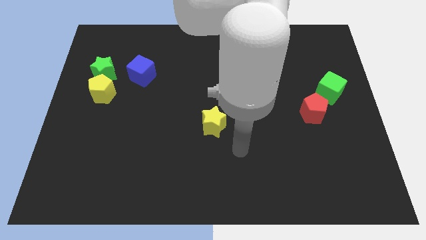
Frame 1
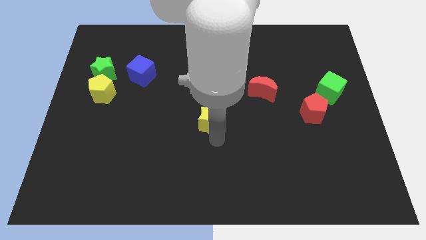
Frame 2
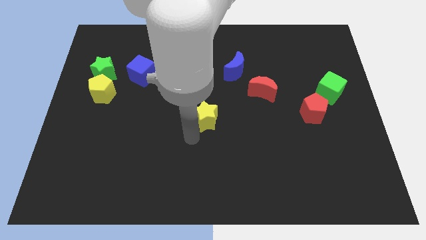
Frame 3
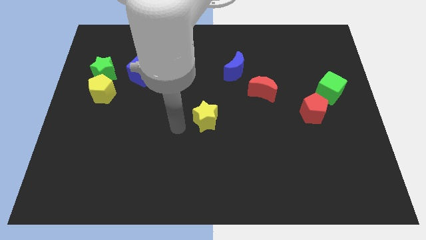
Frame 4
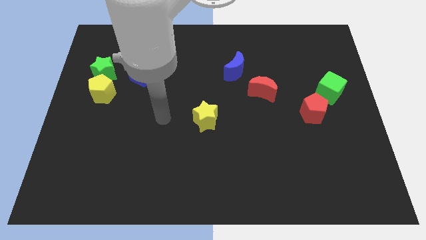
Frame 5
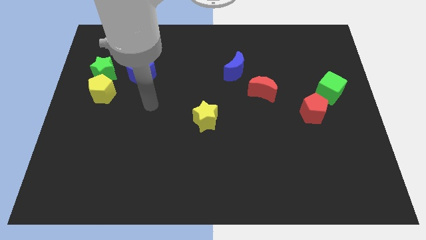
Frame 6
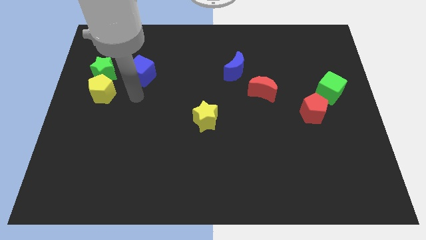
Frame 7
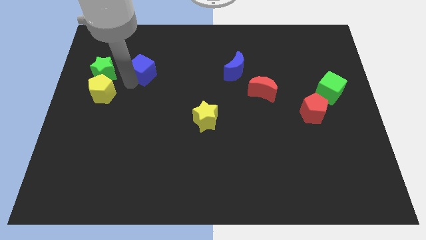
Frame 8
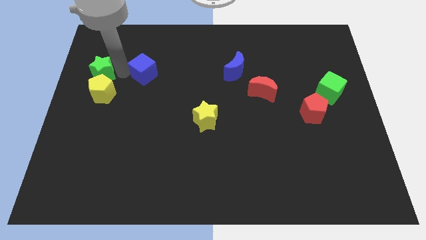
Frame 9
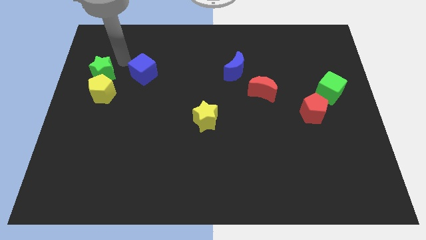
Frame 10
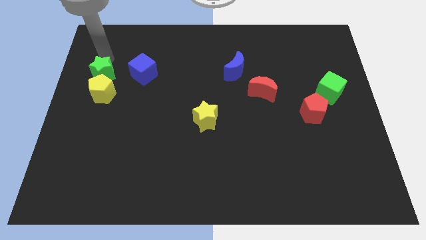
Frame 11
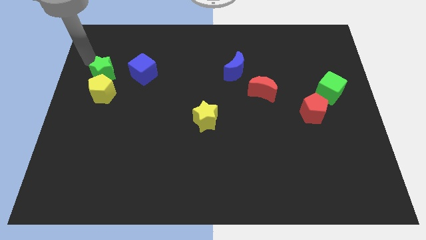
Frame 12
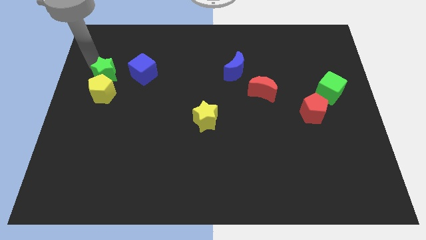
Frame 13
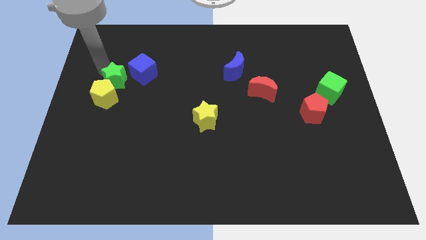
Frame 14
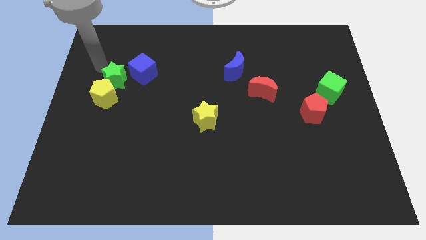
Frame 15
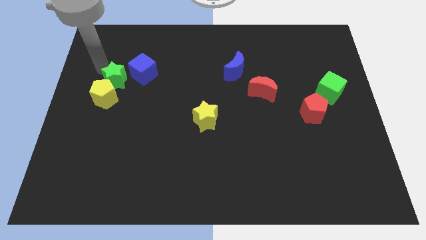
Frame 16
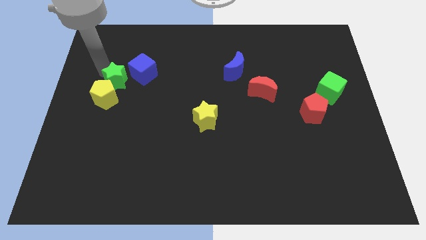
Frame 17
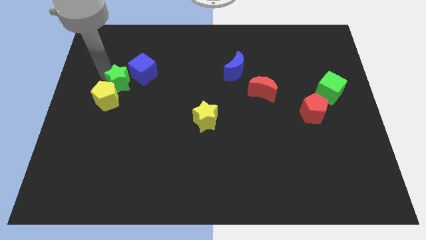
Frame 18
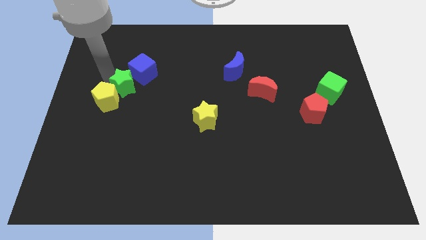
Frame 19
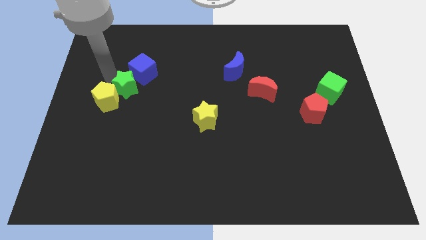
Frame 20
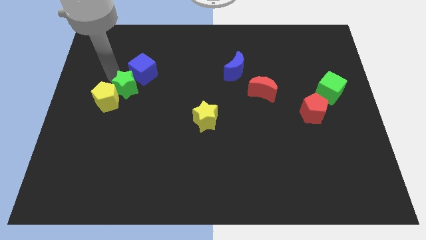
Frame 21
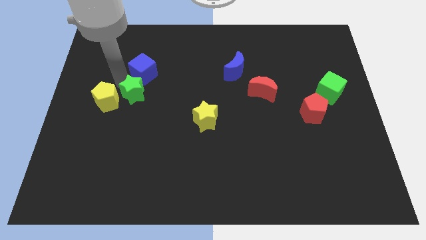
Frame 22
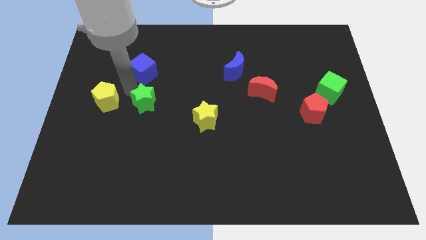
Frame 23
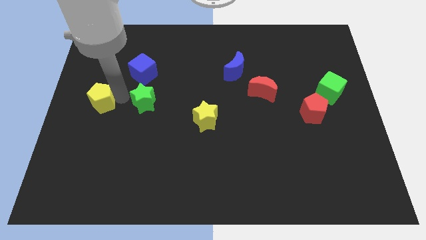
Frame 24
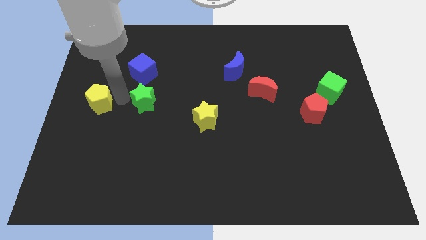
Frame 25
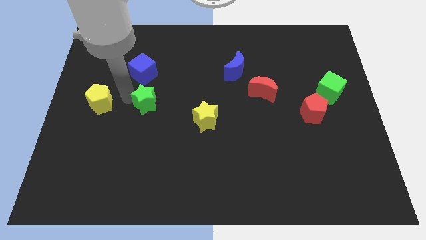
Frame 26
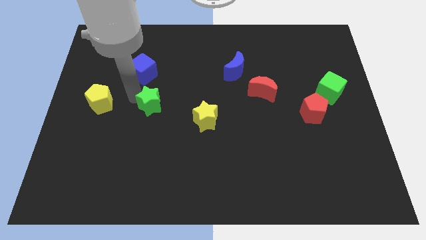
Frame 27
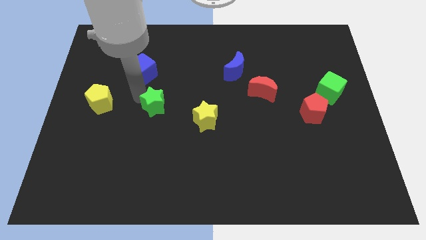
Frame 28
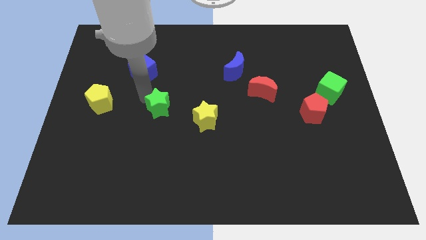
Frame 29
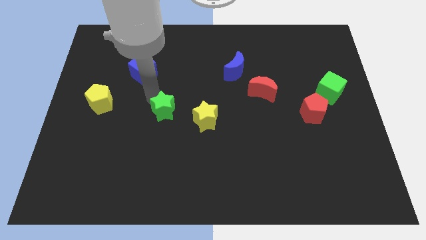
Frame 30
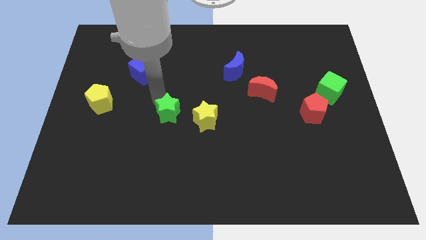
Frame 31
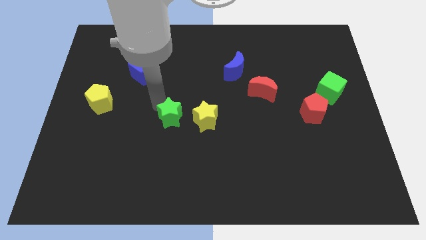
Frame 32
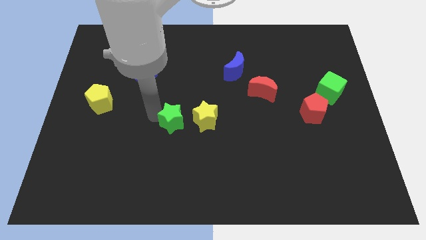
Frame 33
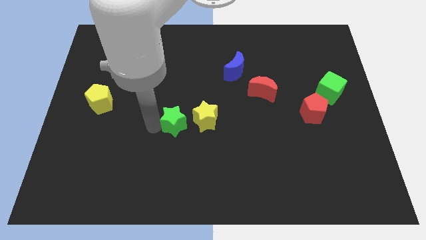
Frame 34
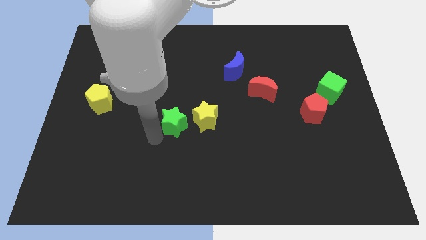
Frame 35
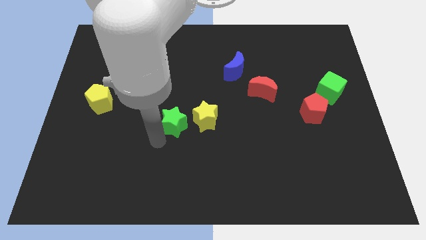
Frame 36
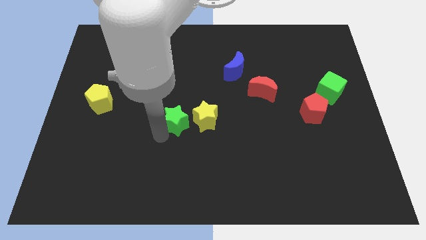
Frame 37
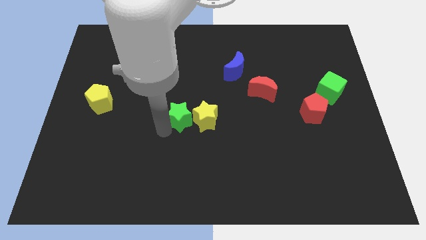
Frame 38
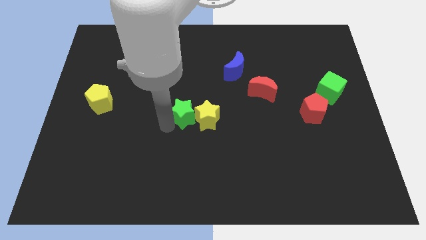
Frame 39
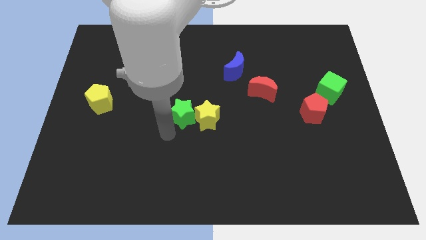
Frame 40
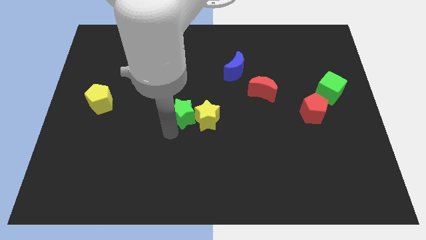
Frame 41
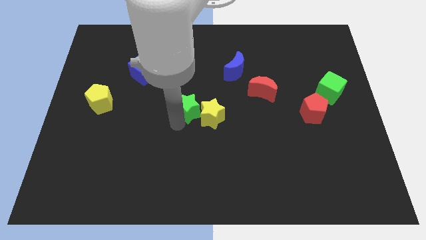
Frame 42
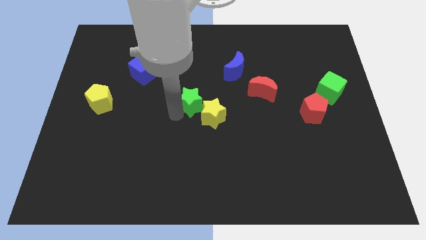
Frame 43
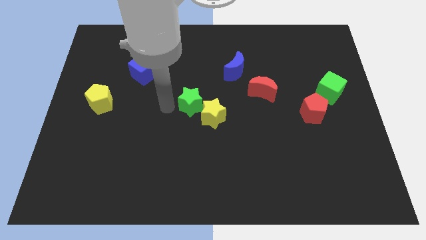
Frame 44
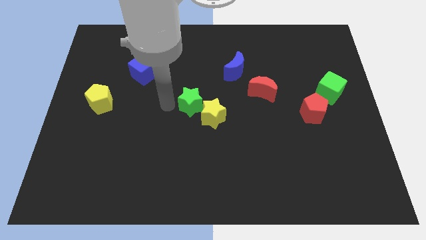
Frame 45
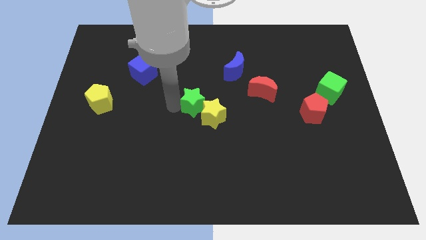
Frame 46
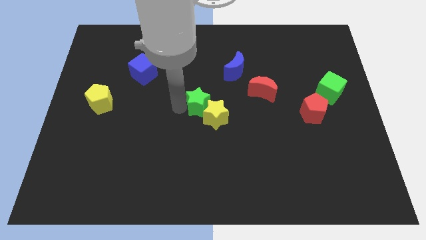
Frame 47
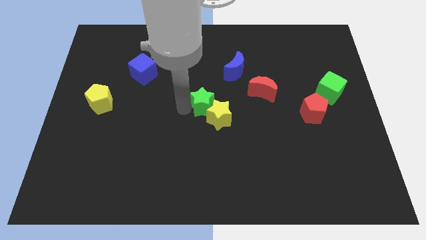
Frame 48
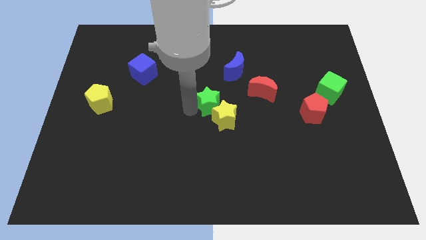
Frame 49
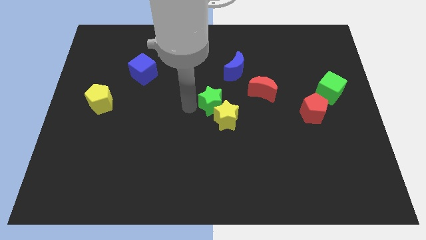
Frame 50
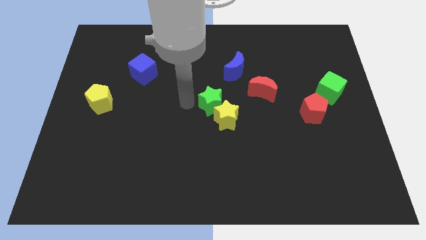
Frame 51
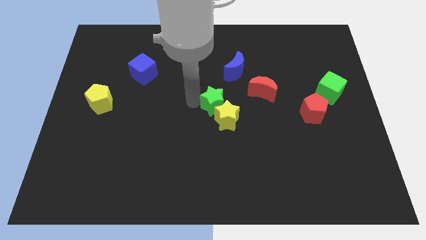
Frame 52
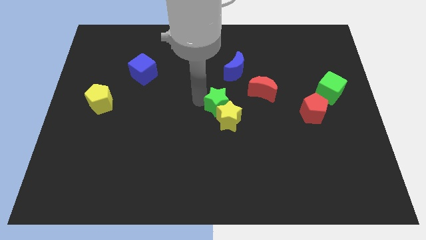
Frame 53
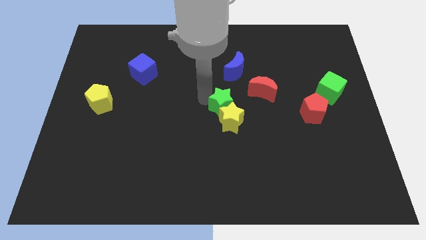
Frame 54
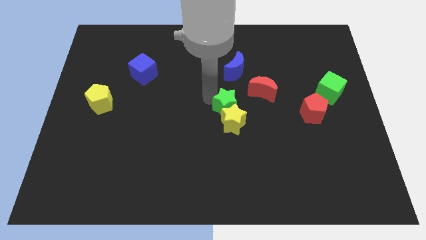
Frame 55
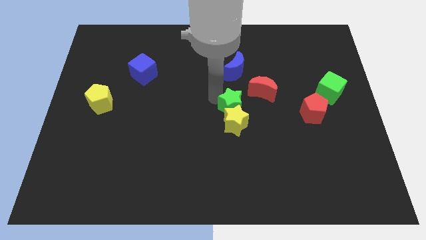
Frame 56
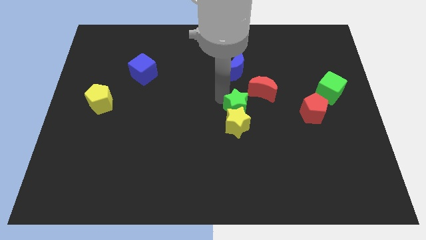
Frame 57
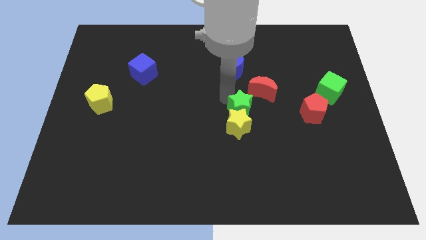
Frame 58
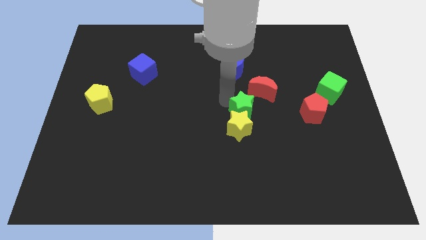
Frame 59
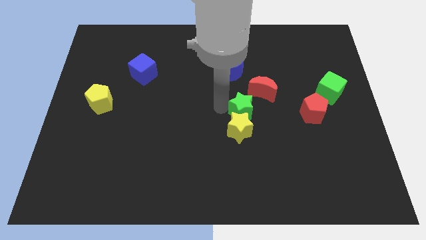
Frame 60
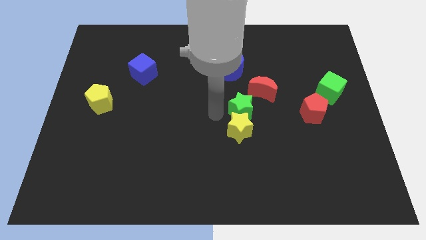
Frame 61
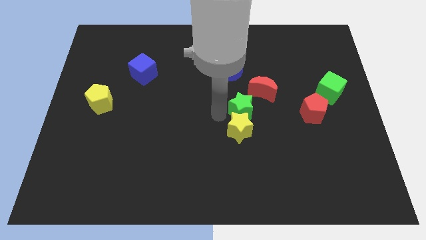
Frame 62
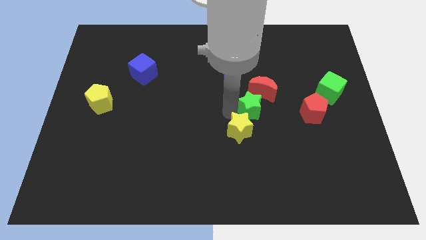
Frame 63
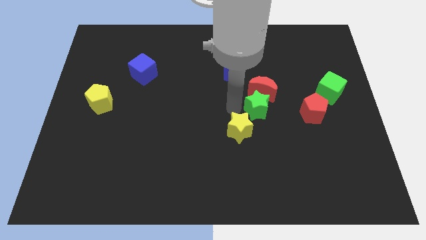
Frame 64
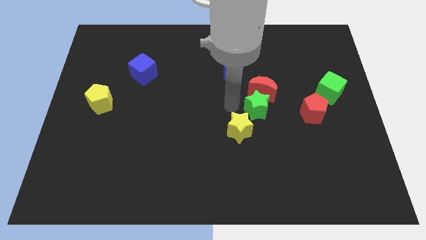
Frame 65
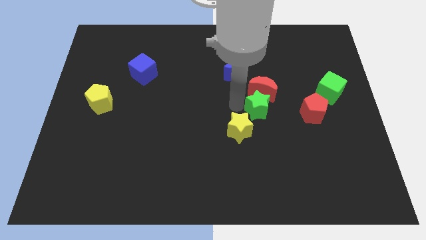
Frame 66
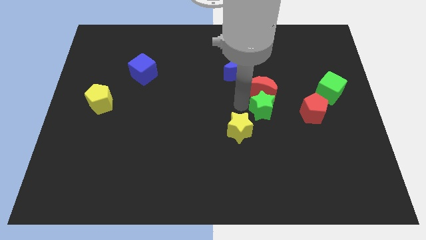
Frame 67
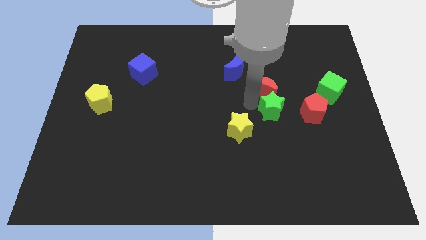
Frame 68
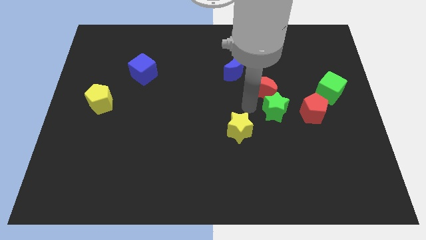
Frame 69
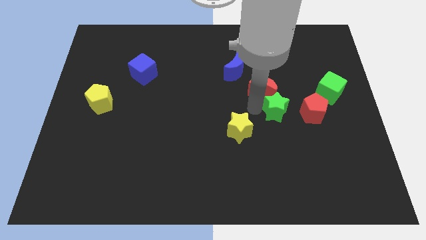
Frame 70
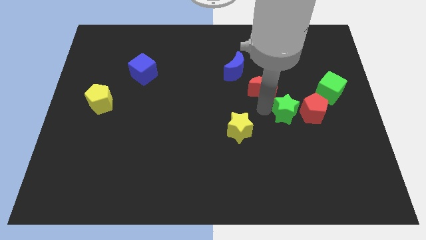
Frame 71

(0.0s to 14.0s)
slide the green star close to the red pentagon

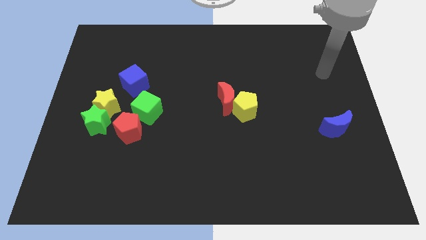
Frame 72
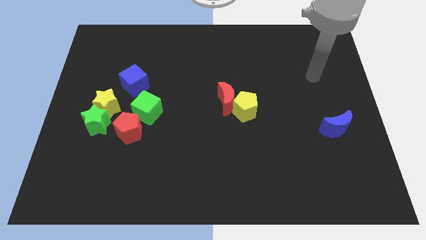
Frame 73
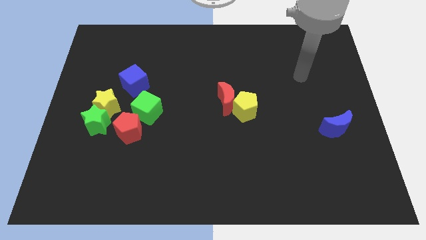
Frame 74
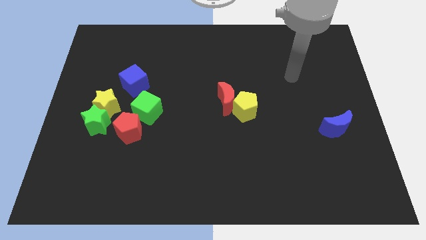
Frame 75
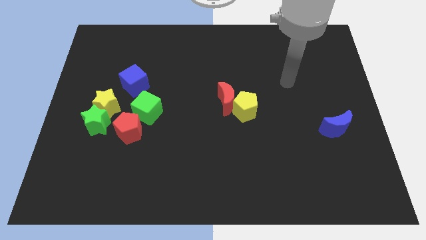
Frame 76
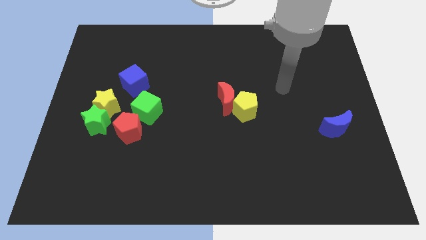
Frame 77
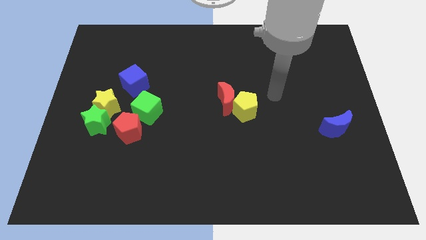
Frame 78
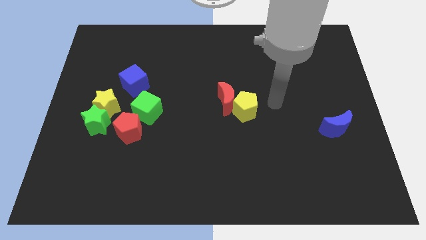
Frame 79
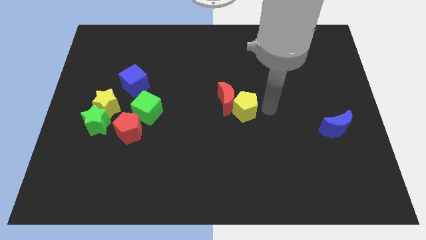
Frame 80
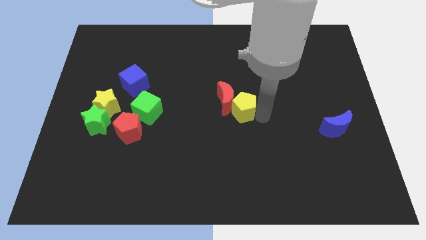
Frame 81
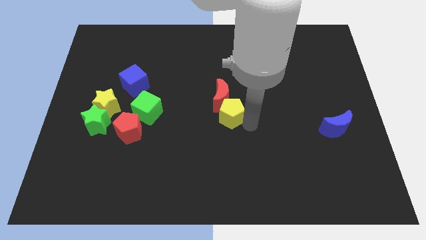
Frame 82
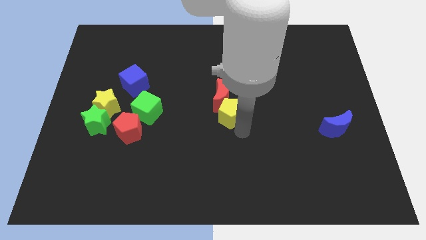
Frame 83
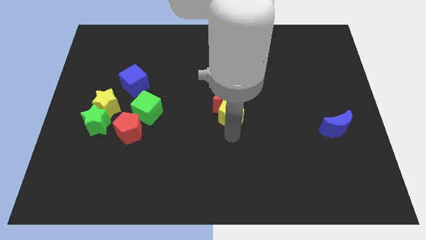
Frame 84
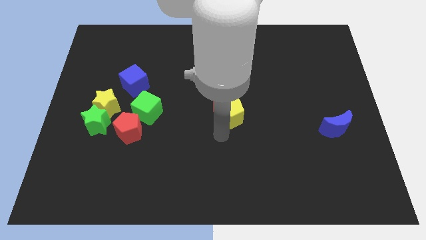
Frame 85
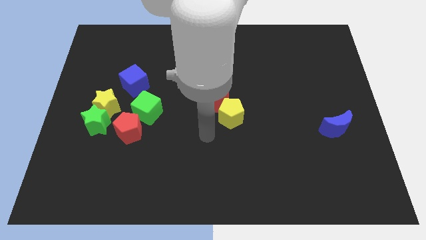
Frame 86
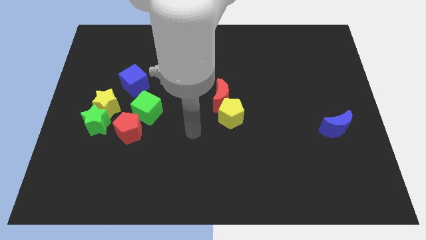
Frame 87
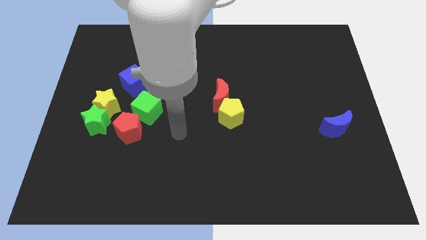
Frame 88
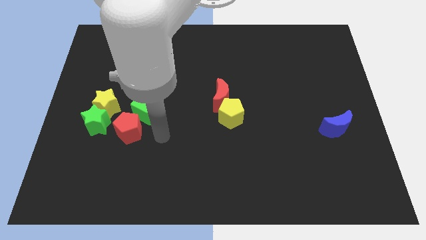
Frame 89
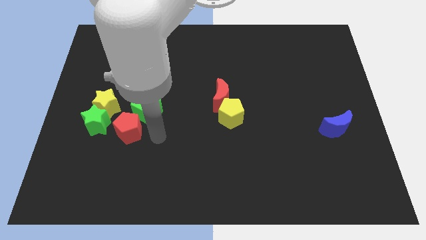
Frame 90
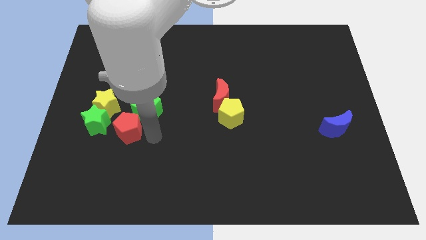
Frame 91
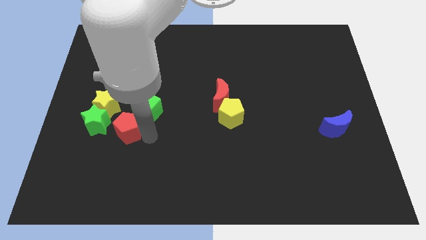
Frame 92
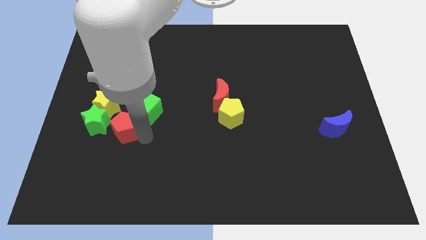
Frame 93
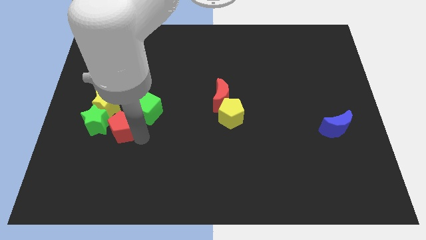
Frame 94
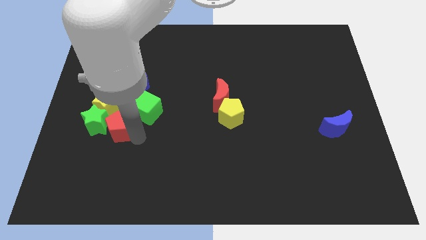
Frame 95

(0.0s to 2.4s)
slide the red pentagon next to the green star
